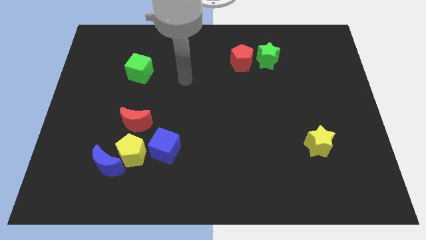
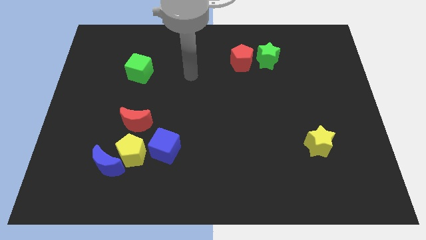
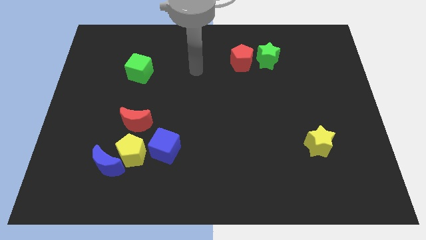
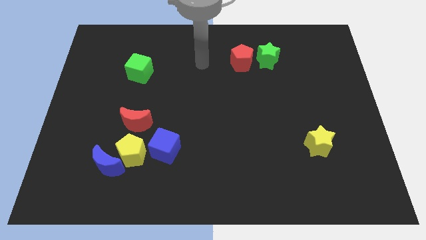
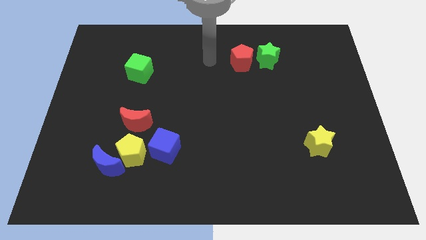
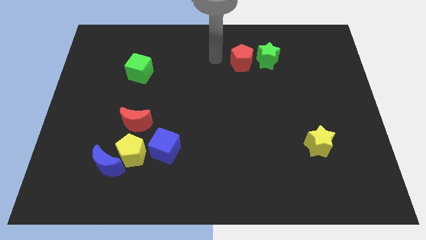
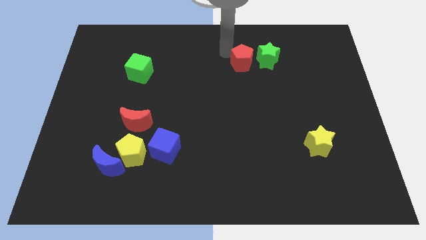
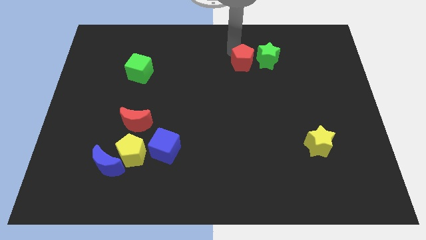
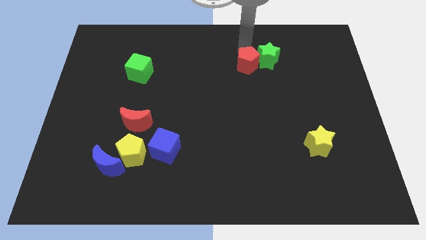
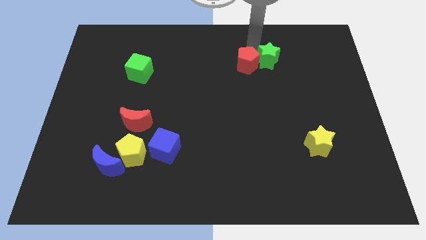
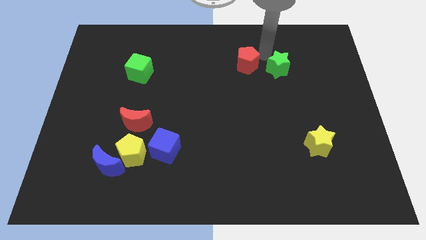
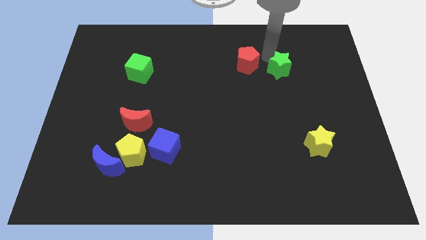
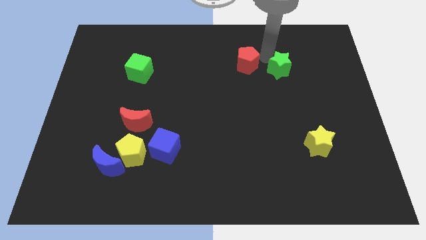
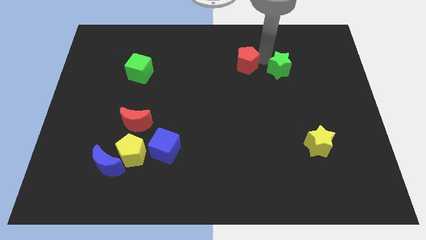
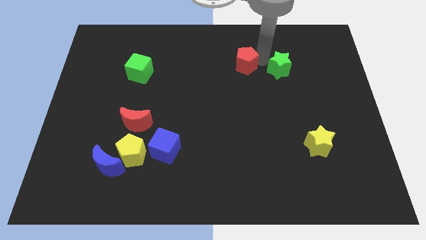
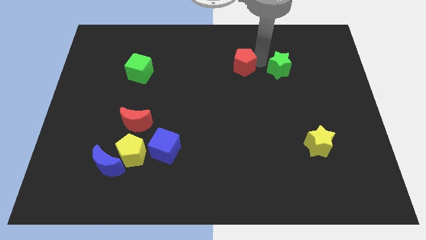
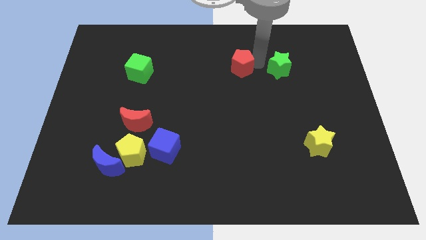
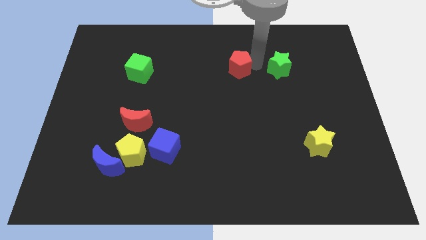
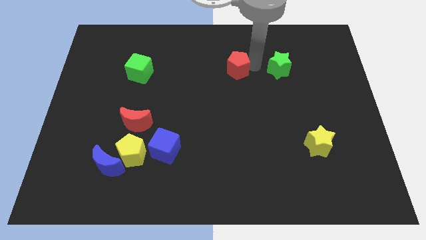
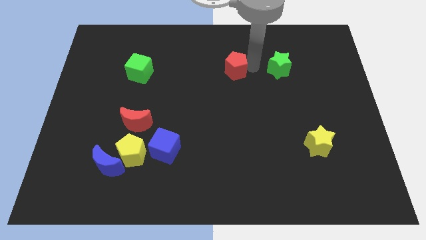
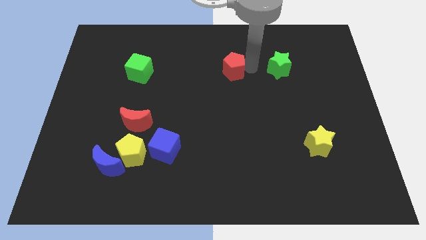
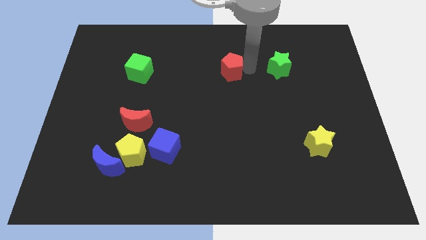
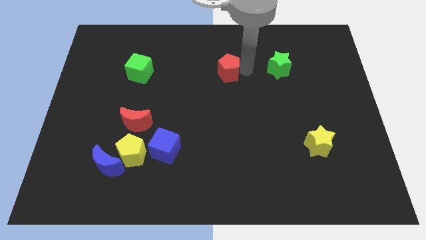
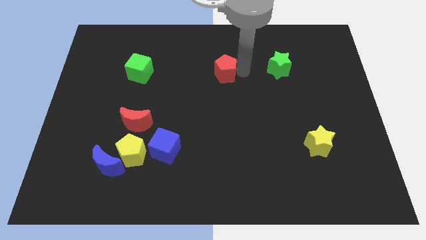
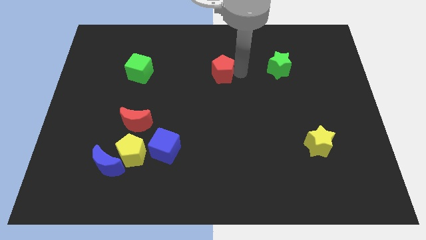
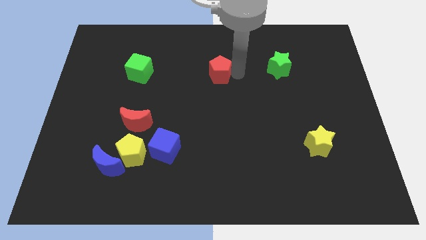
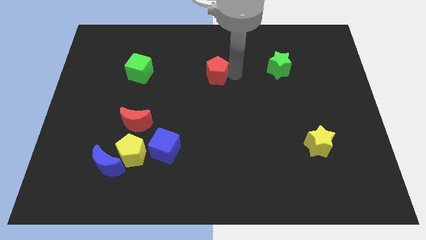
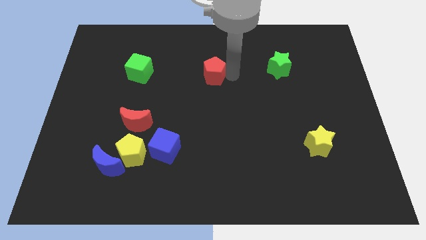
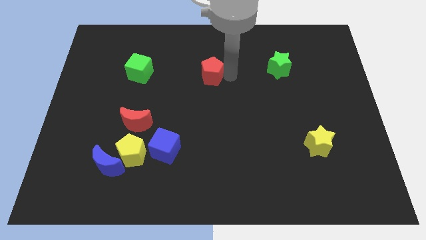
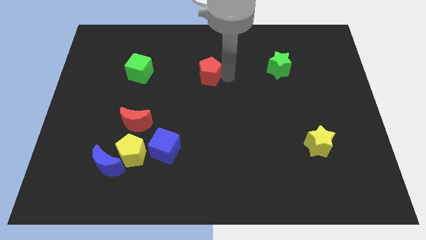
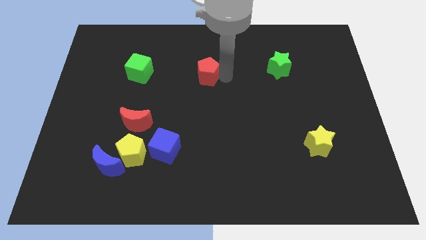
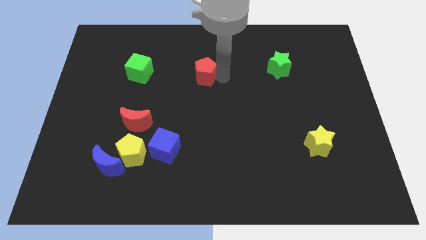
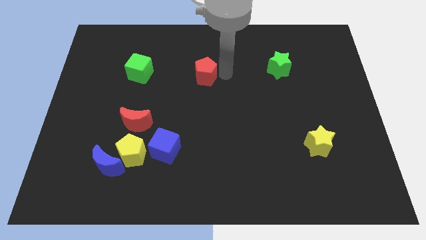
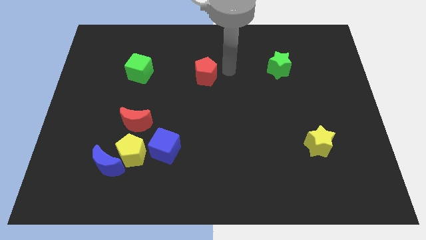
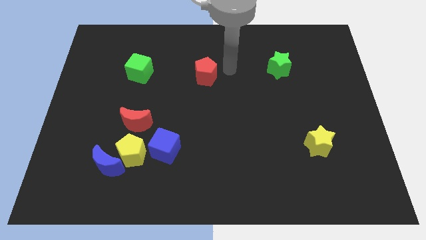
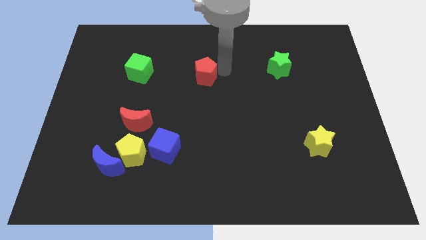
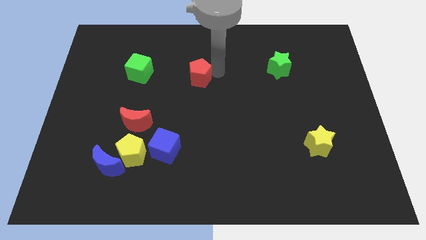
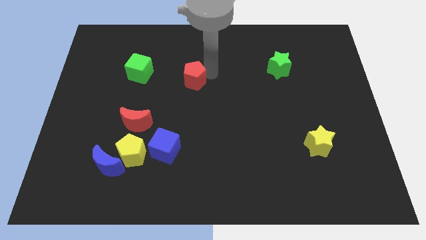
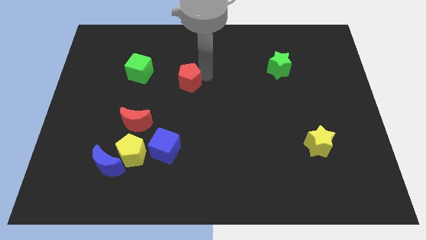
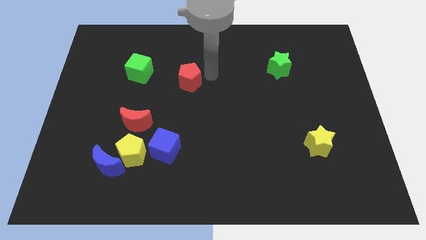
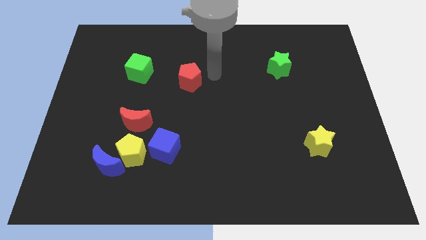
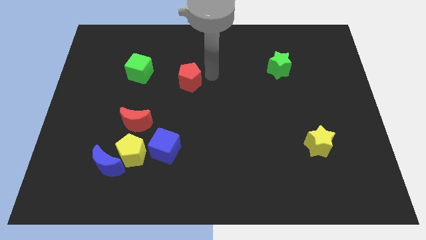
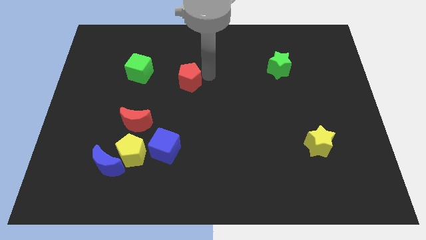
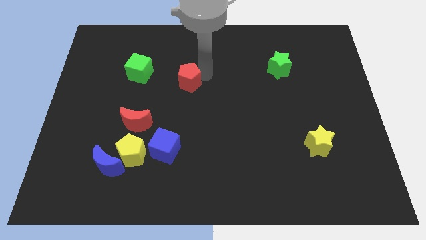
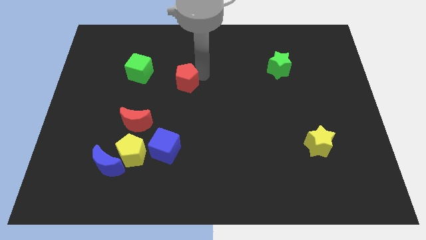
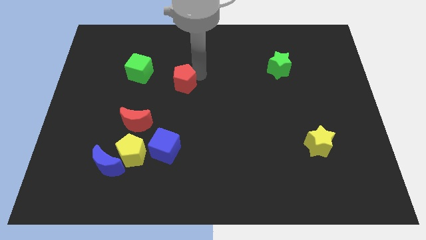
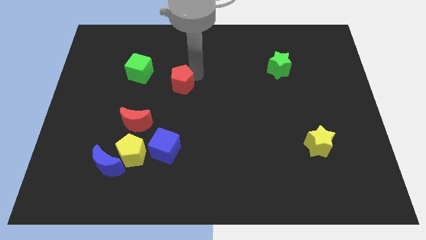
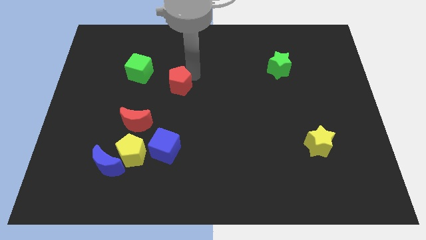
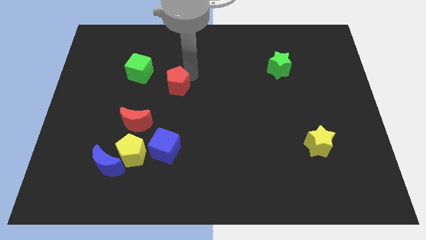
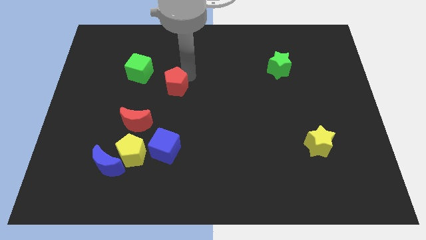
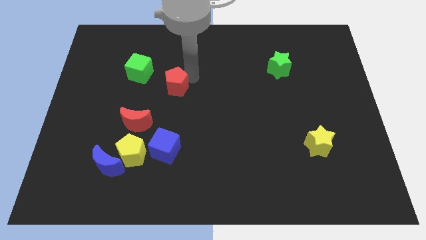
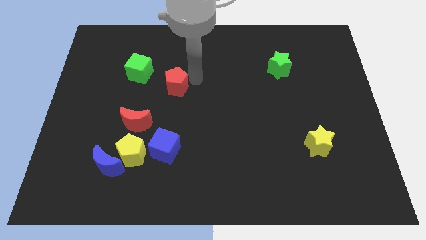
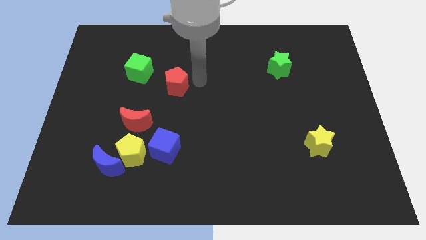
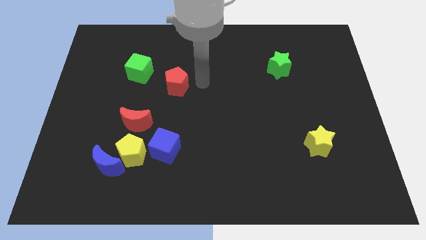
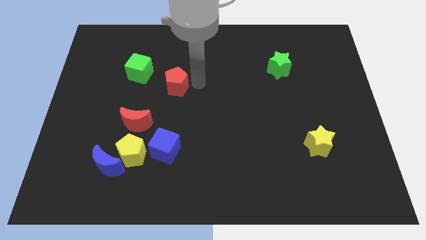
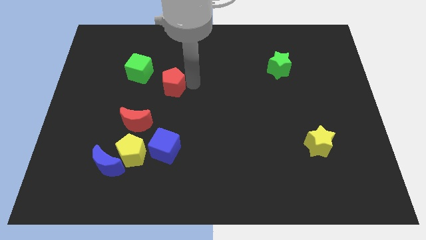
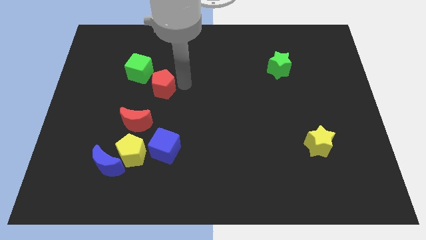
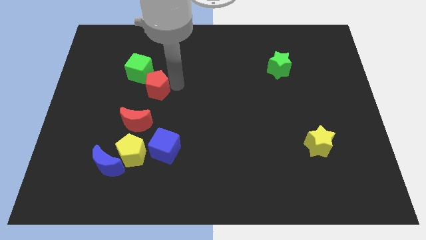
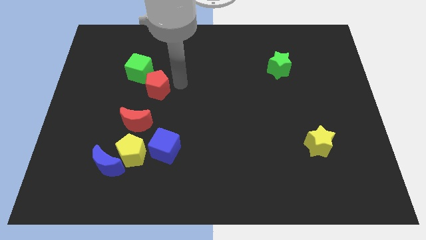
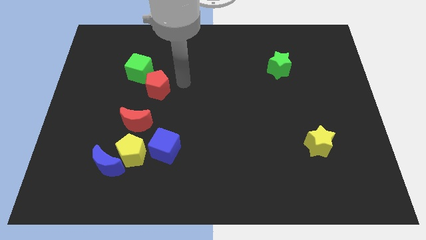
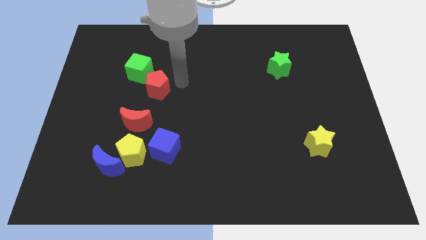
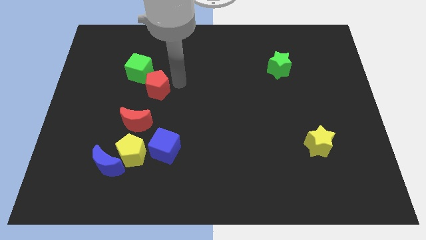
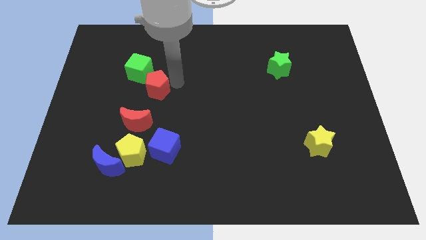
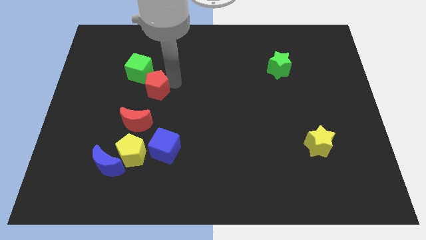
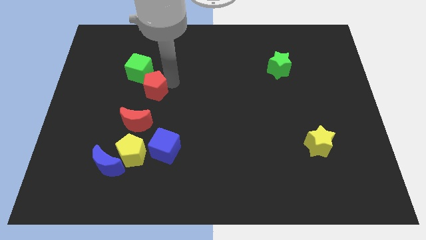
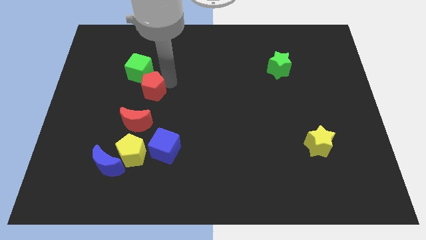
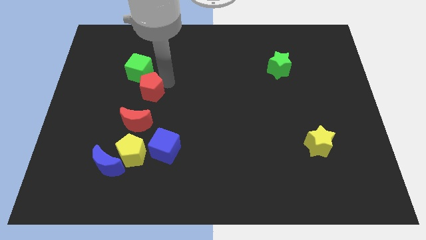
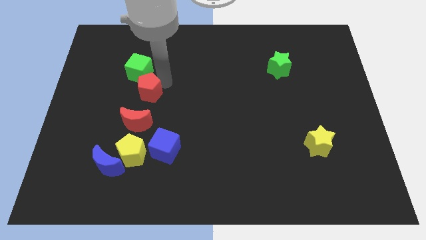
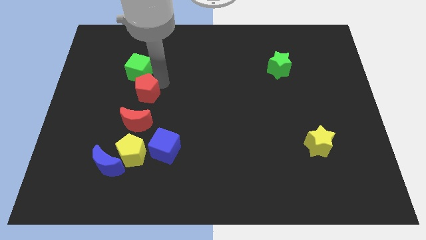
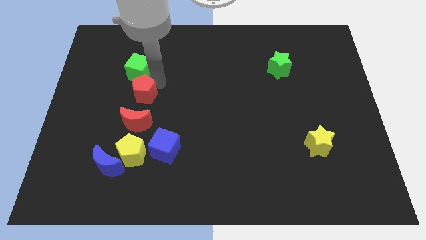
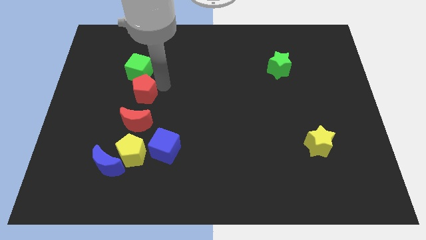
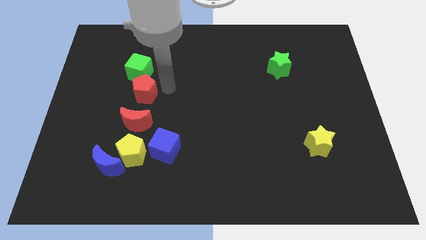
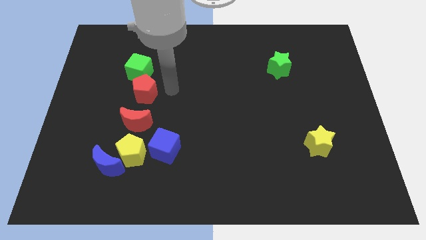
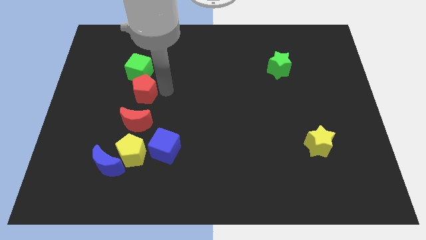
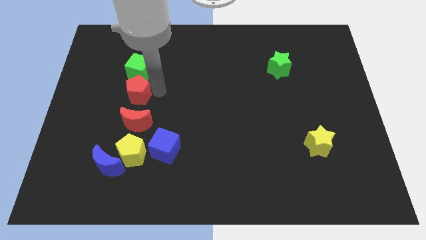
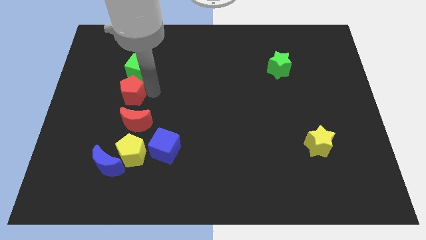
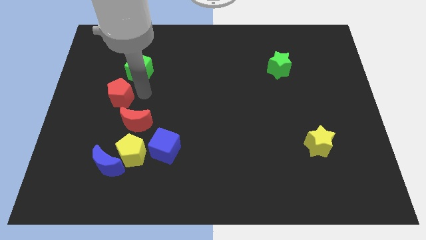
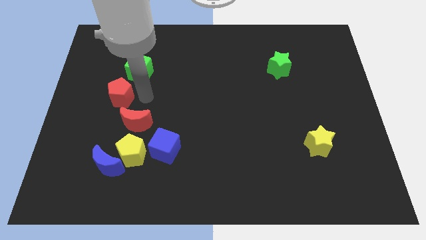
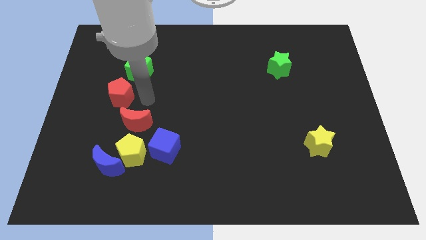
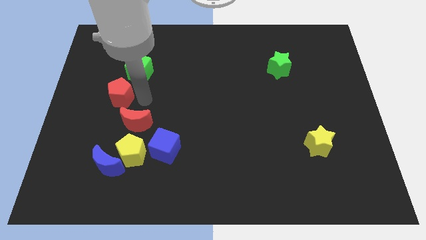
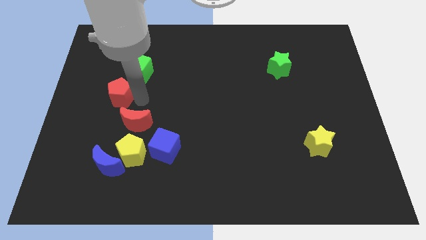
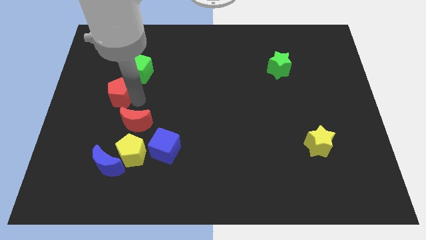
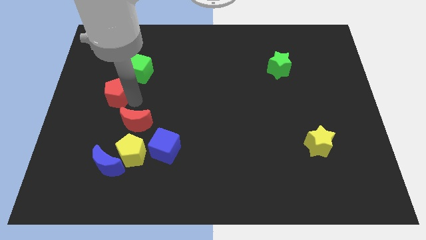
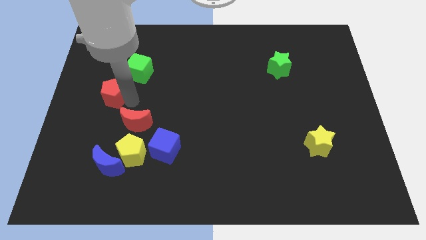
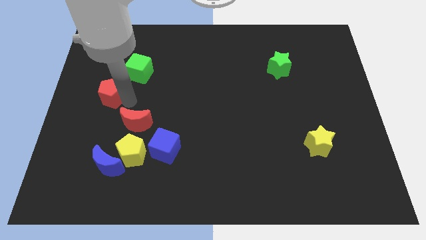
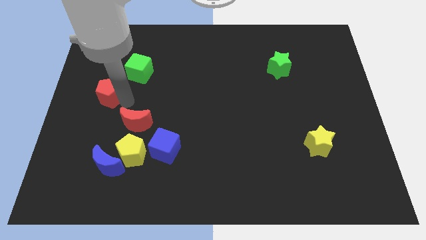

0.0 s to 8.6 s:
slide the red pentagon to the left side
